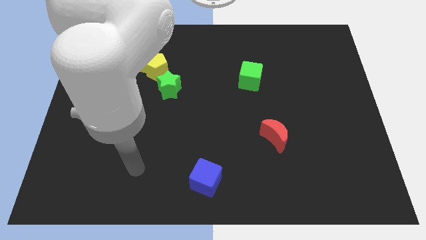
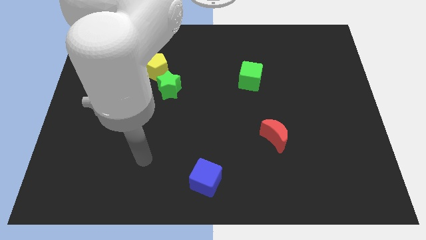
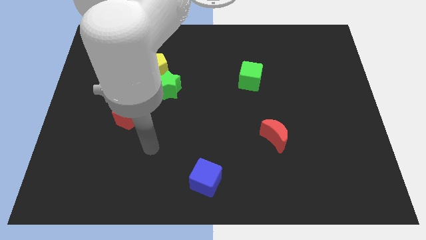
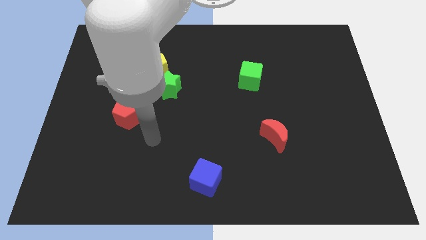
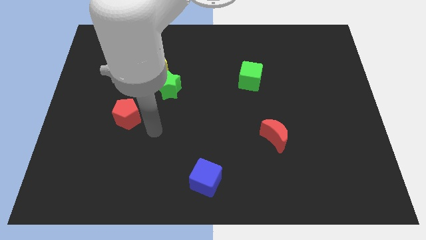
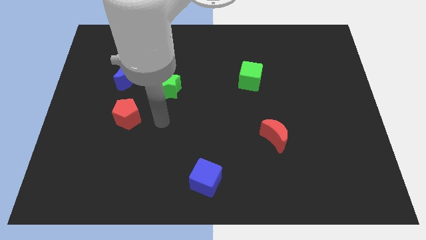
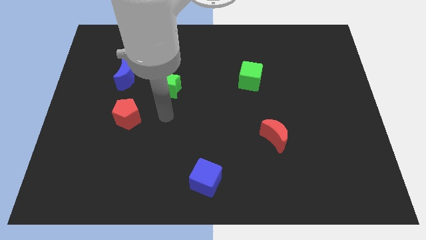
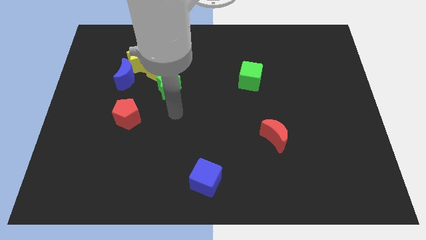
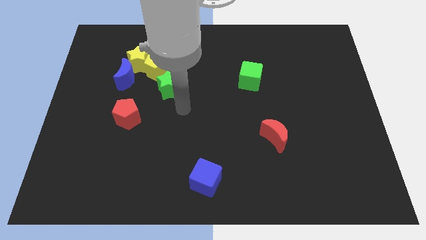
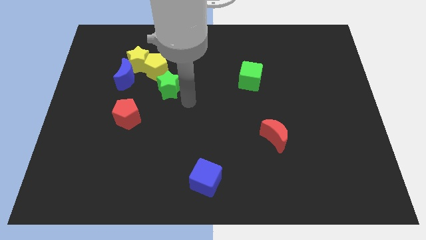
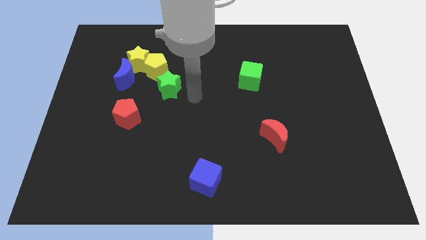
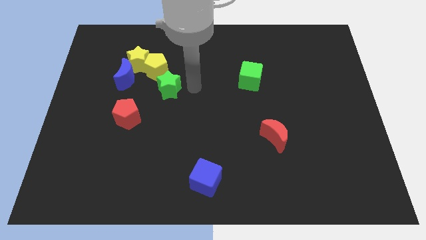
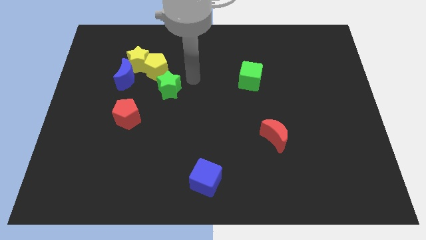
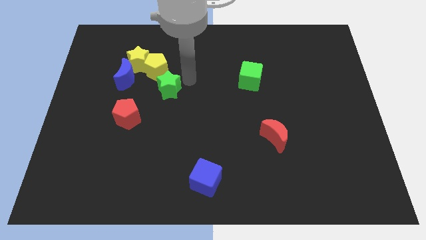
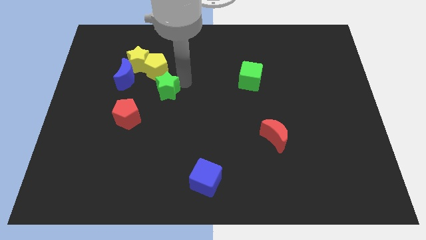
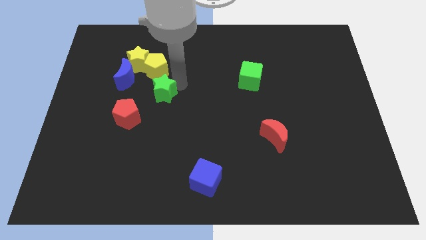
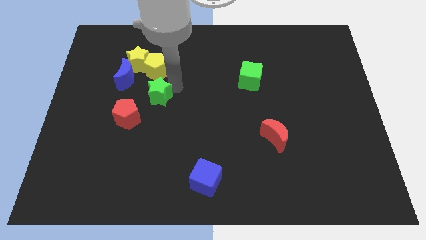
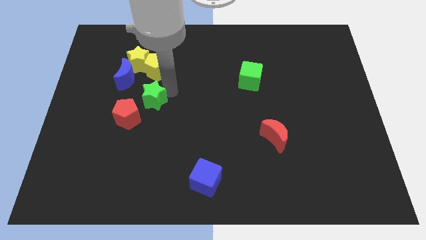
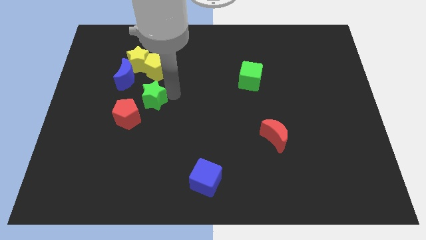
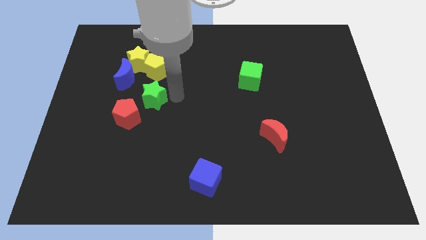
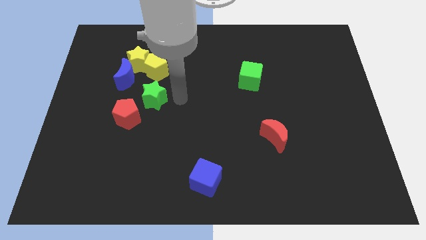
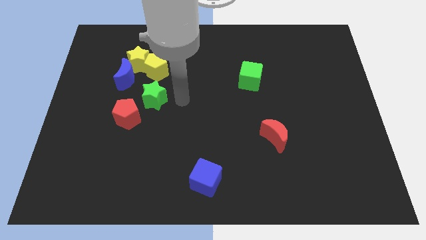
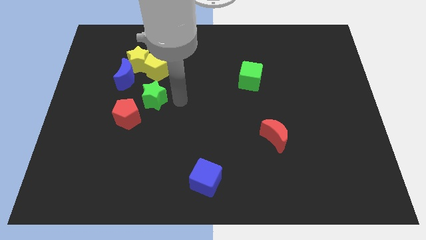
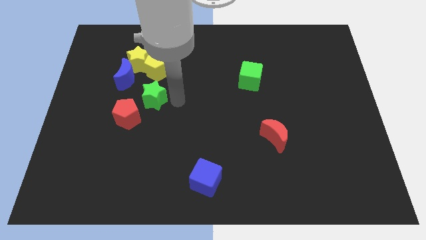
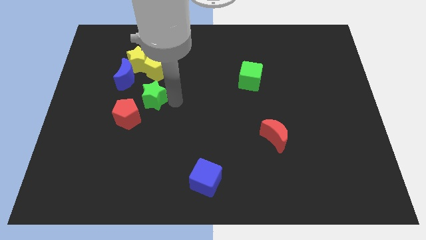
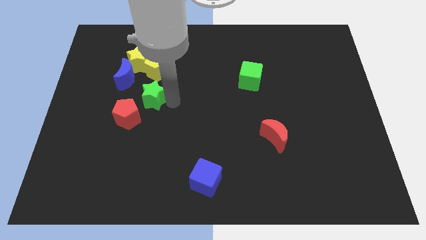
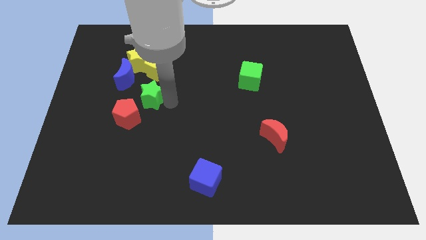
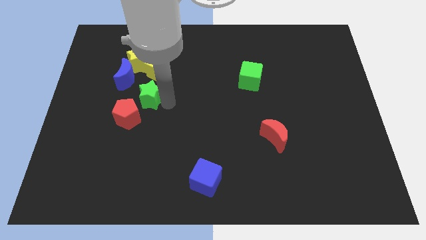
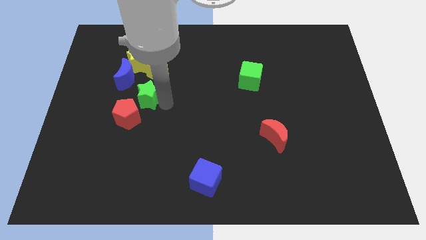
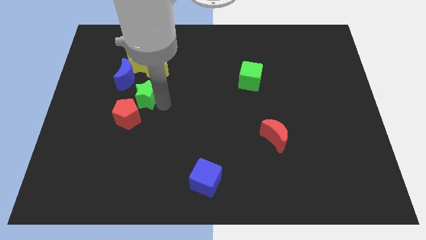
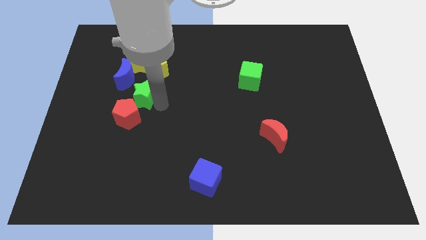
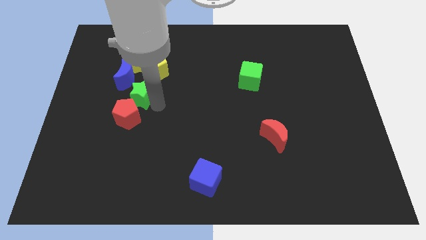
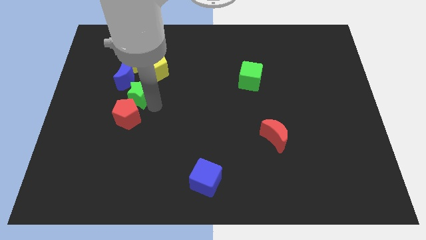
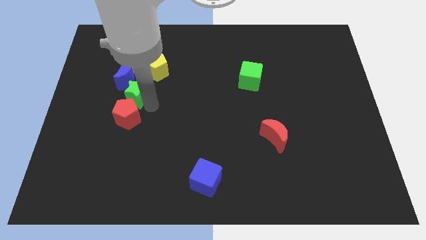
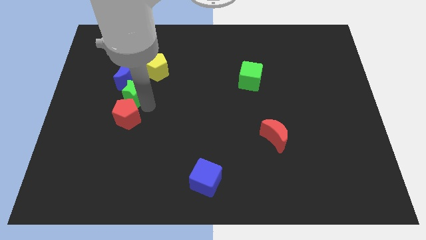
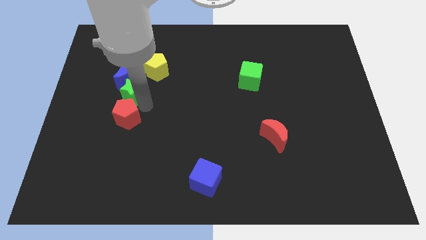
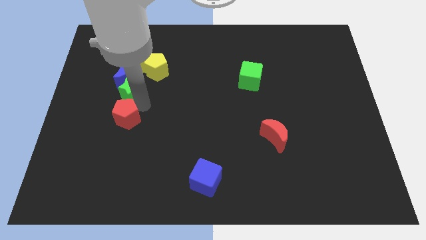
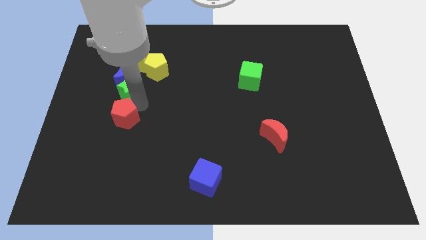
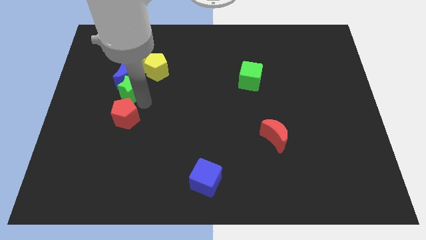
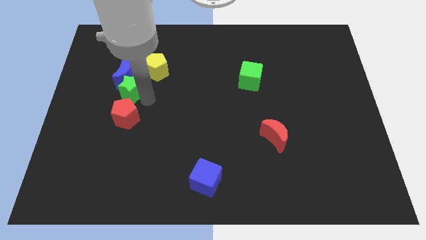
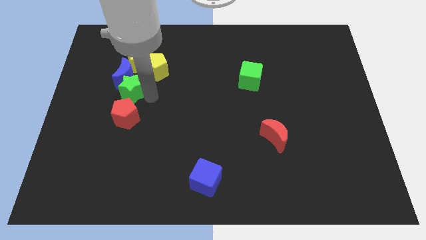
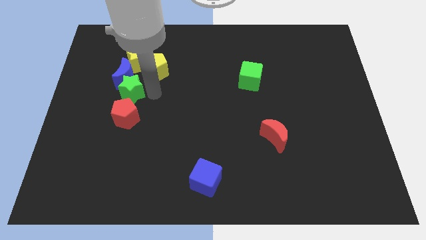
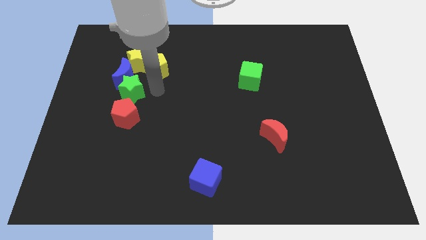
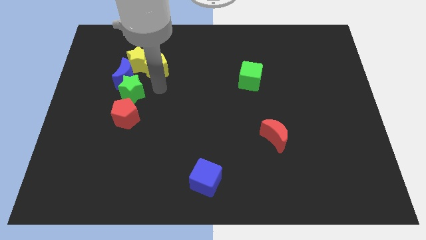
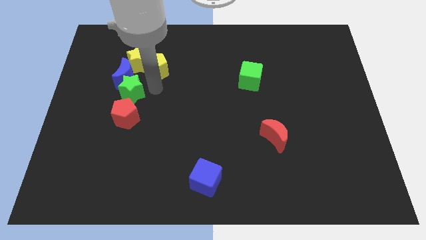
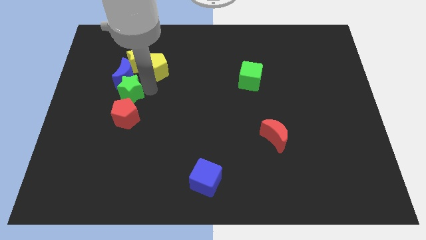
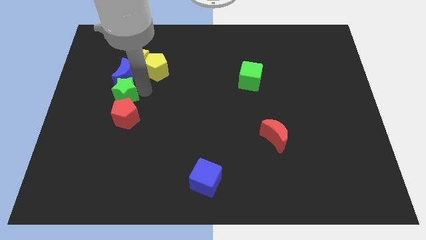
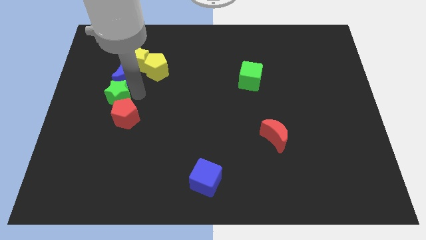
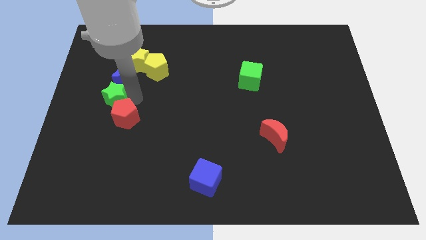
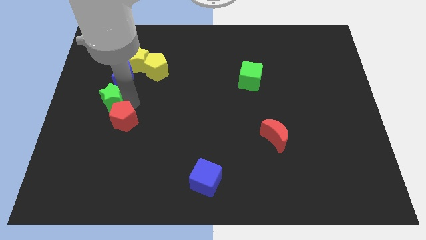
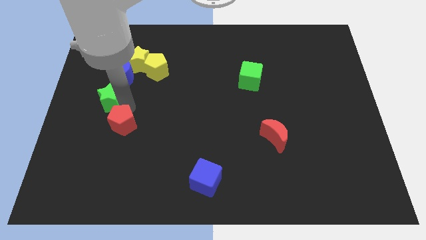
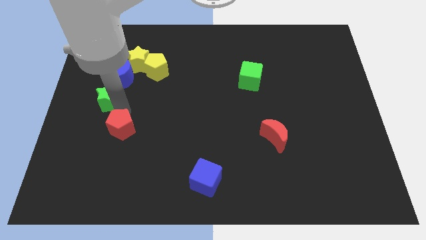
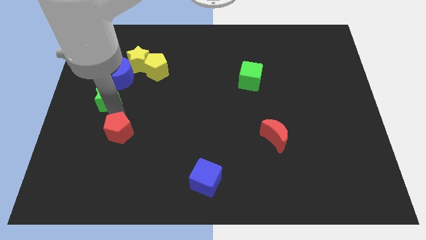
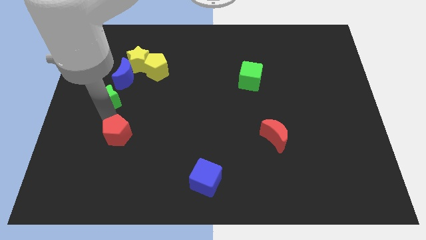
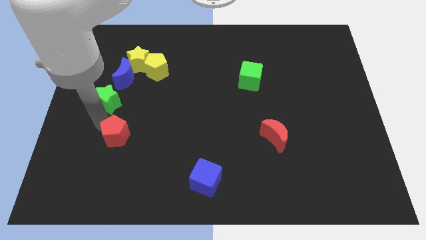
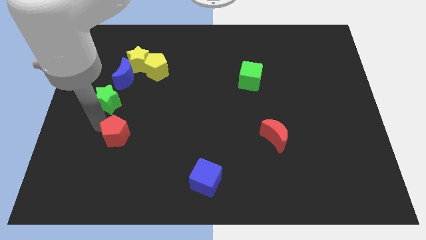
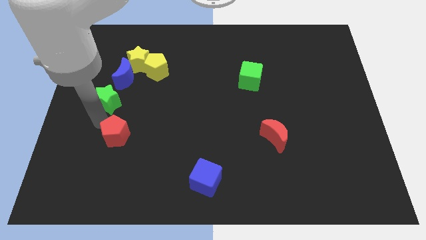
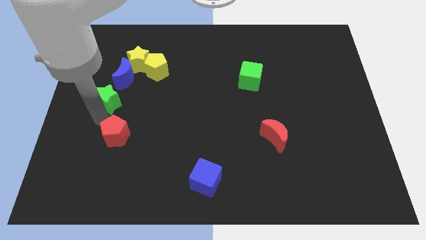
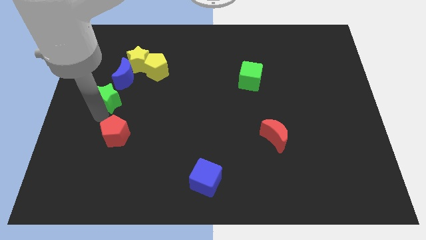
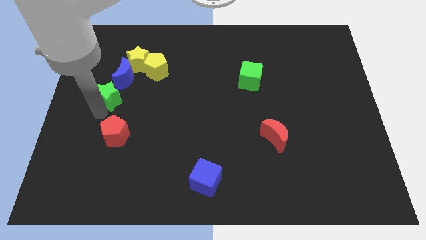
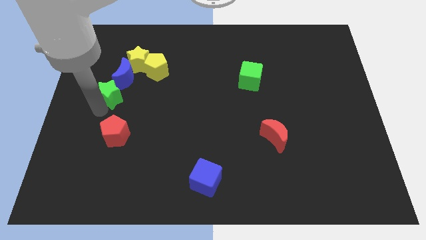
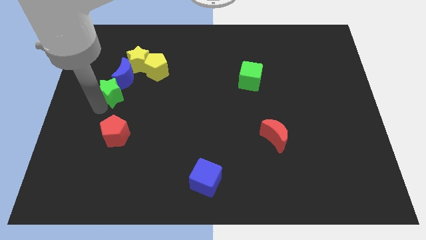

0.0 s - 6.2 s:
move the green star to the bottom left side of the yellow star
